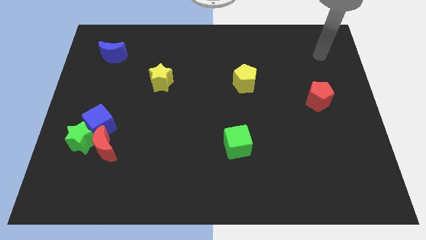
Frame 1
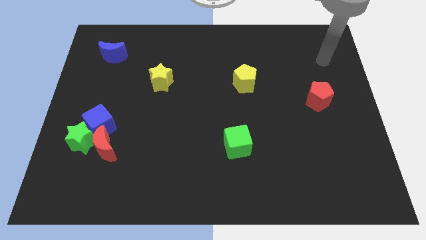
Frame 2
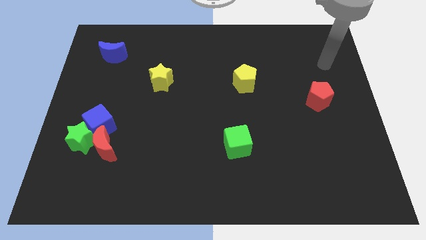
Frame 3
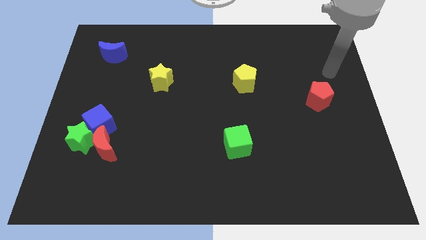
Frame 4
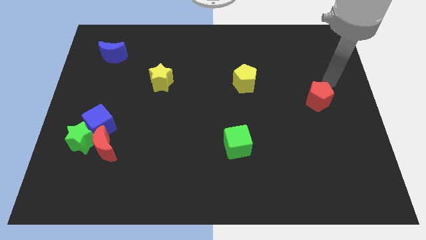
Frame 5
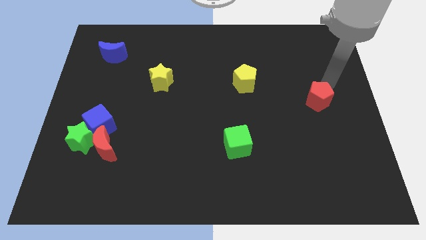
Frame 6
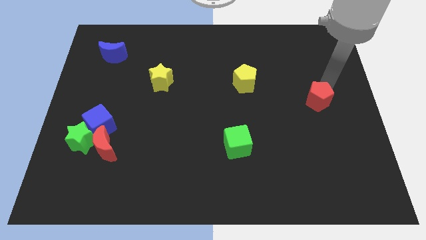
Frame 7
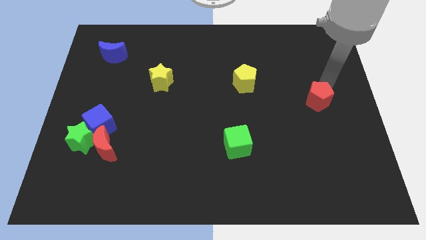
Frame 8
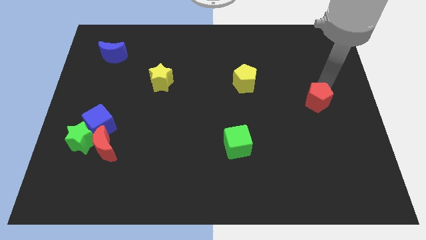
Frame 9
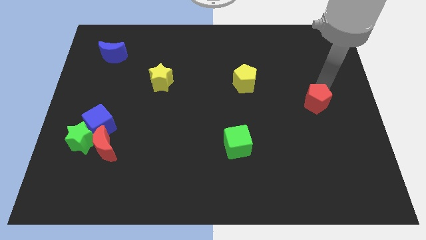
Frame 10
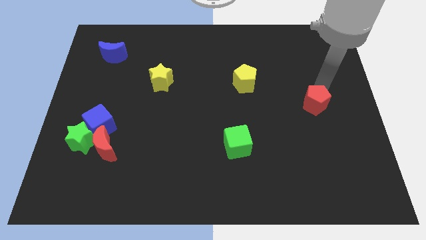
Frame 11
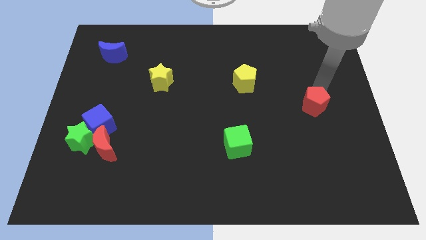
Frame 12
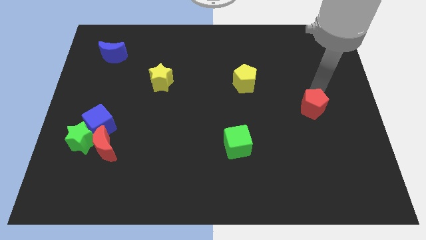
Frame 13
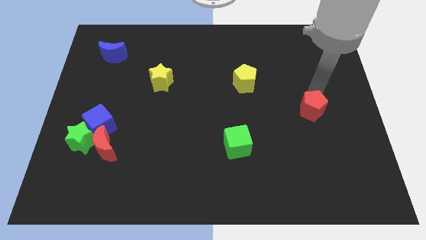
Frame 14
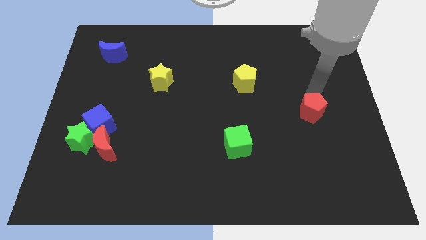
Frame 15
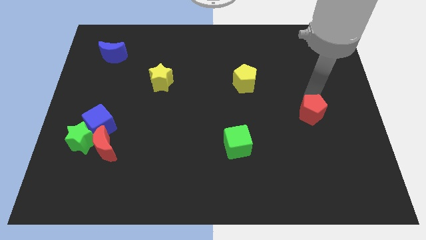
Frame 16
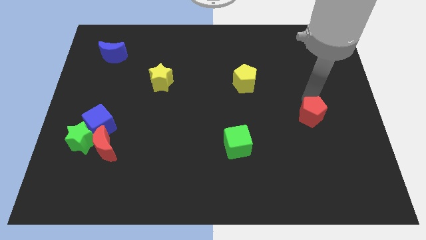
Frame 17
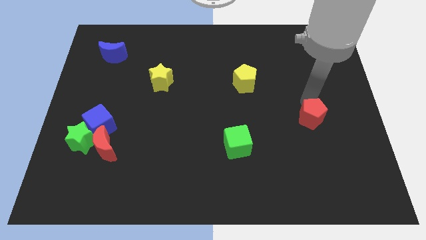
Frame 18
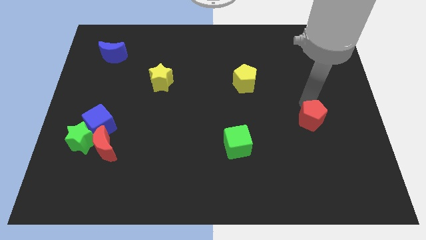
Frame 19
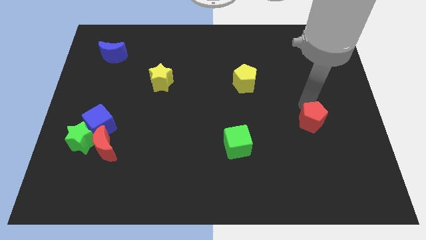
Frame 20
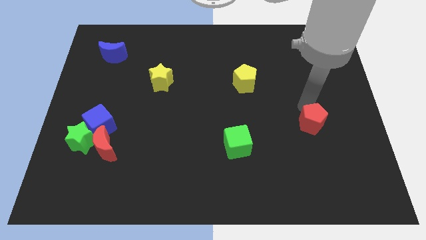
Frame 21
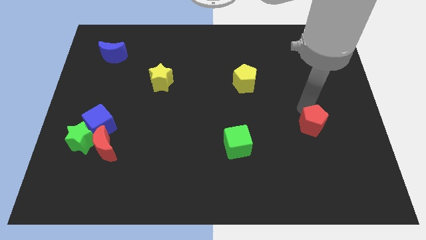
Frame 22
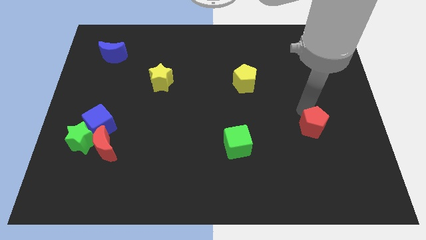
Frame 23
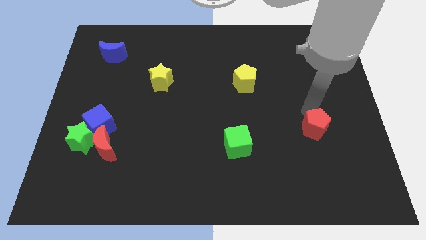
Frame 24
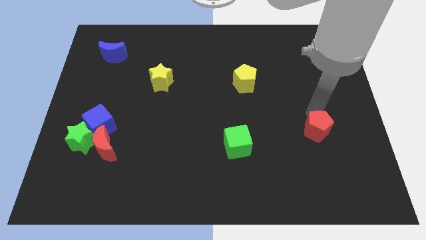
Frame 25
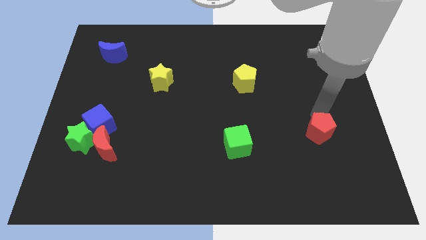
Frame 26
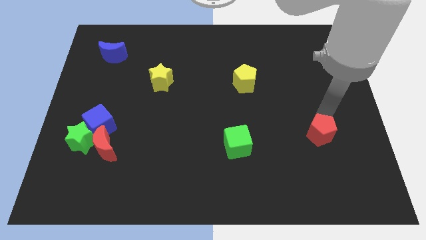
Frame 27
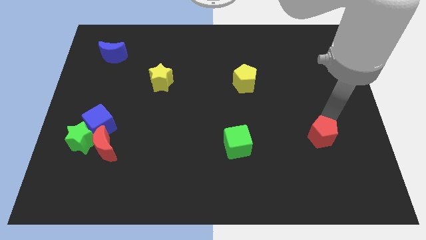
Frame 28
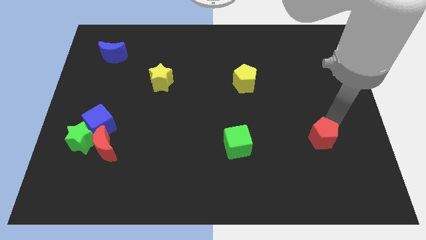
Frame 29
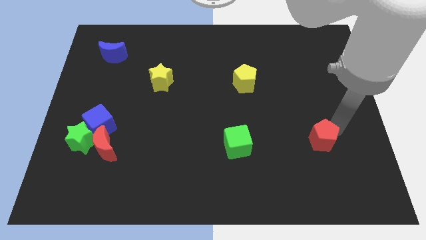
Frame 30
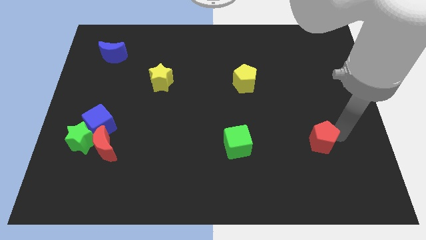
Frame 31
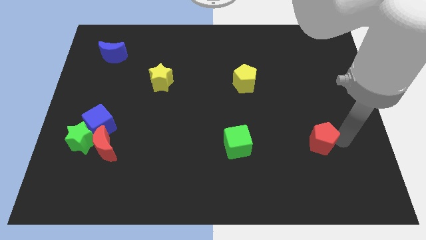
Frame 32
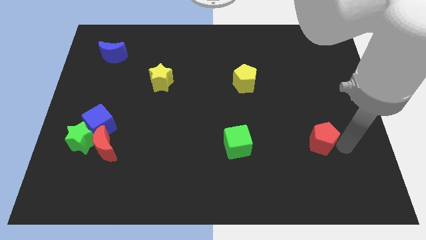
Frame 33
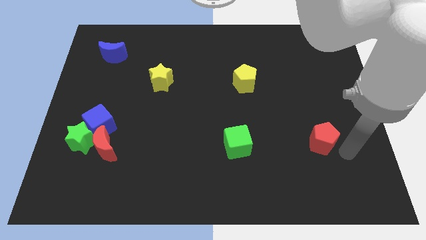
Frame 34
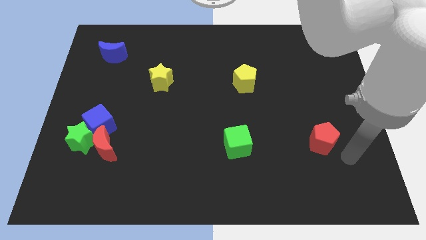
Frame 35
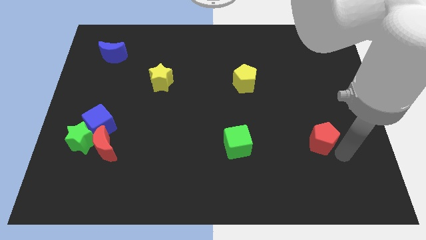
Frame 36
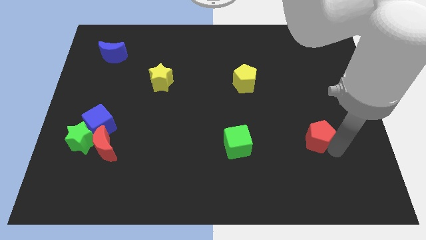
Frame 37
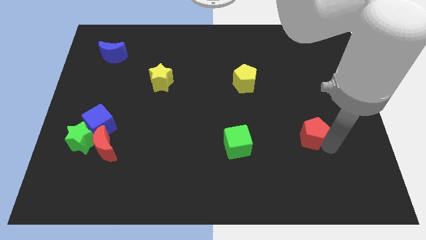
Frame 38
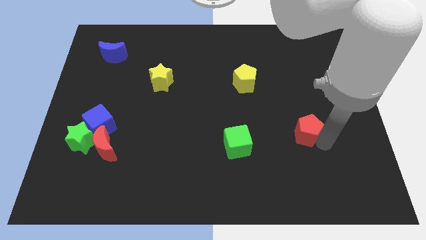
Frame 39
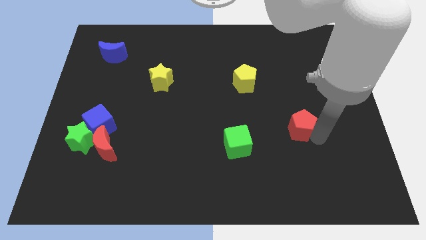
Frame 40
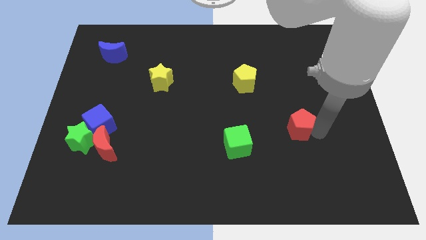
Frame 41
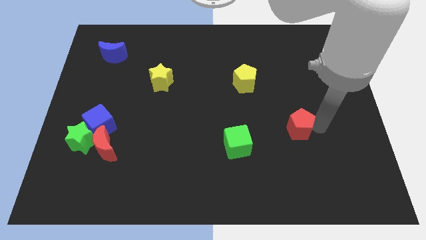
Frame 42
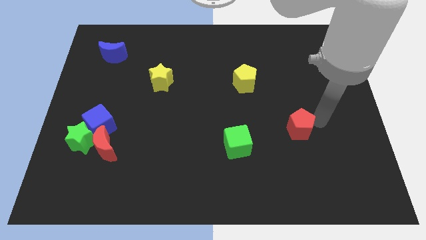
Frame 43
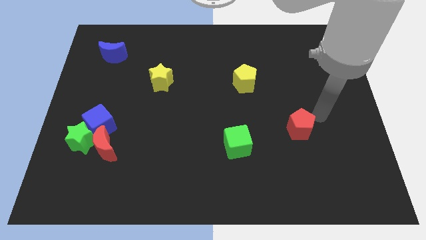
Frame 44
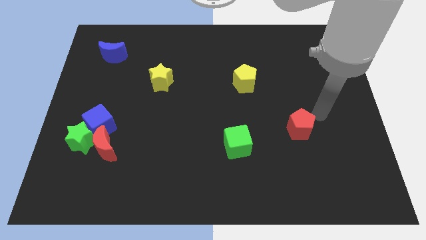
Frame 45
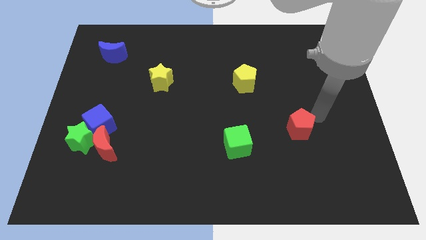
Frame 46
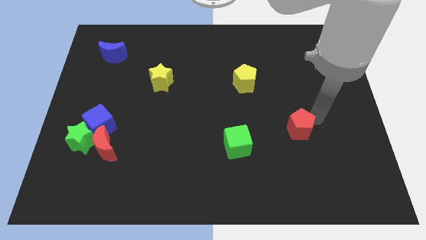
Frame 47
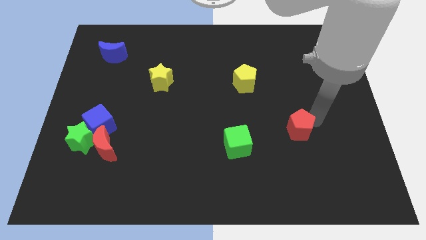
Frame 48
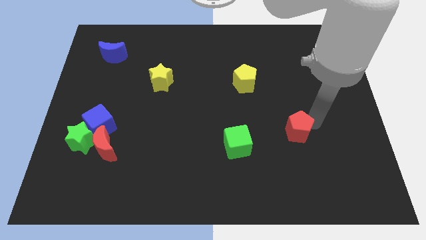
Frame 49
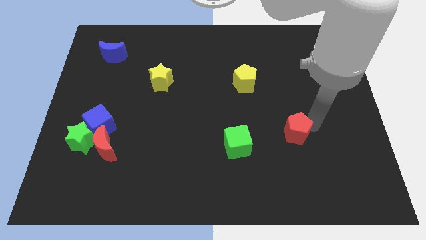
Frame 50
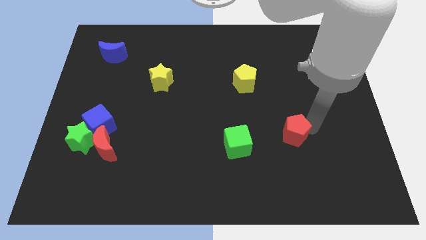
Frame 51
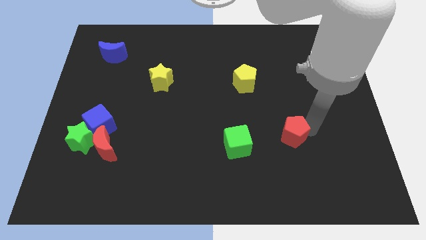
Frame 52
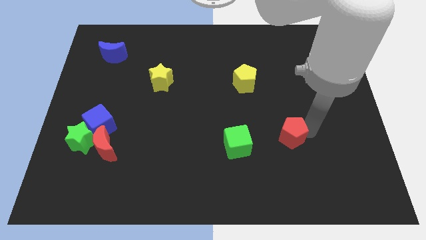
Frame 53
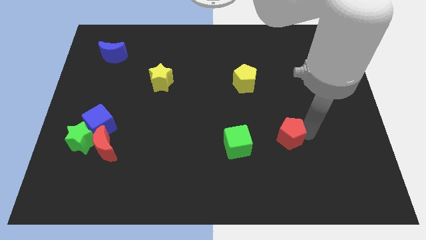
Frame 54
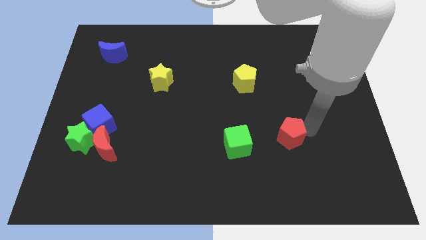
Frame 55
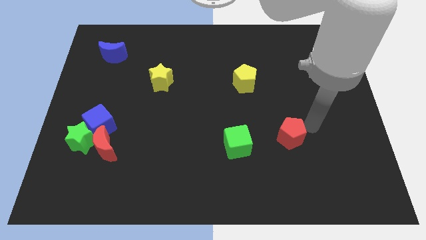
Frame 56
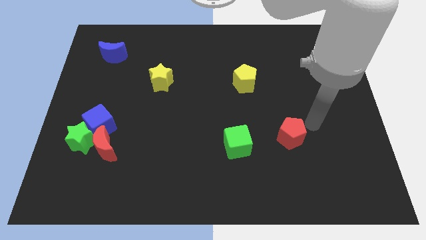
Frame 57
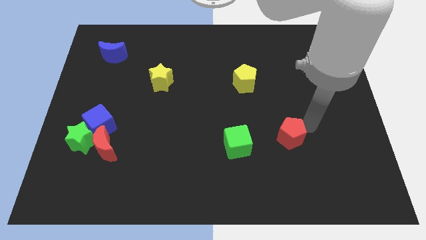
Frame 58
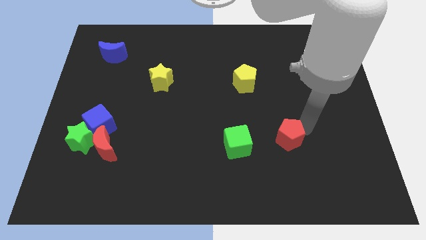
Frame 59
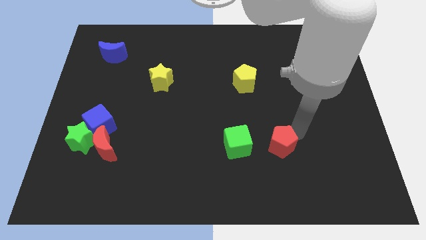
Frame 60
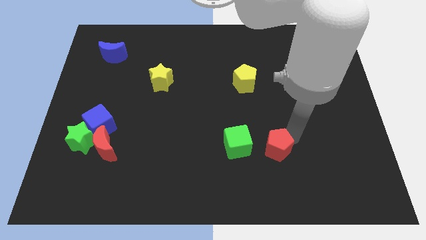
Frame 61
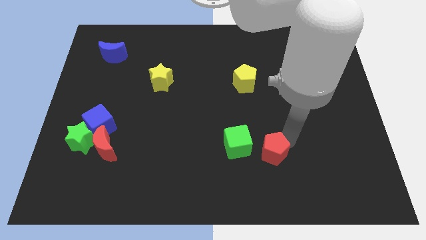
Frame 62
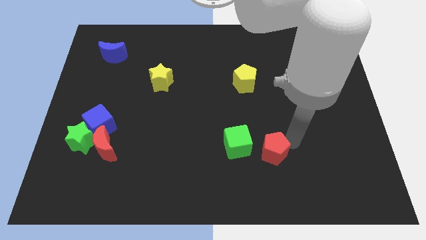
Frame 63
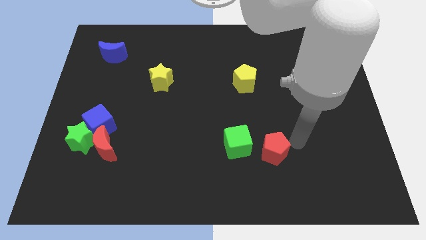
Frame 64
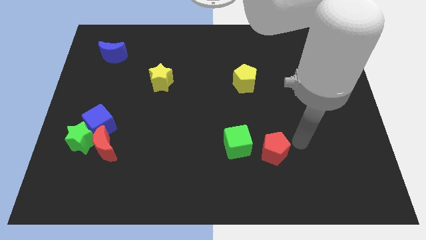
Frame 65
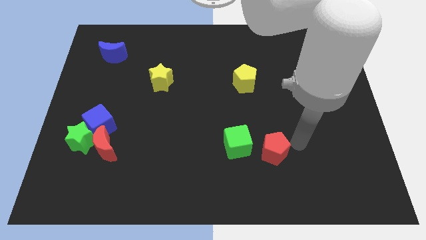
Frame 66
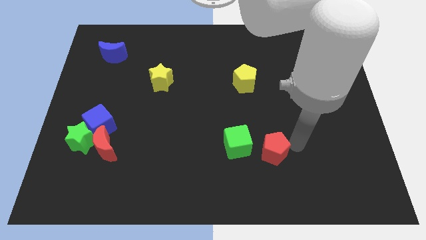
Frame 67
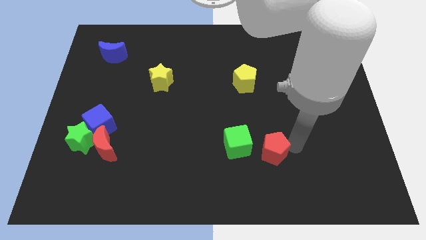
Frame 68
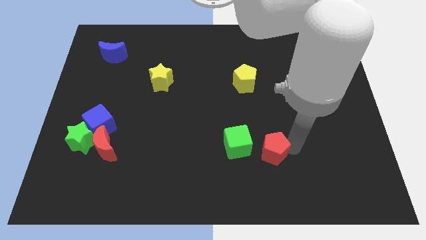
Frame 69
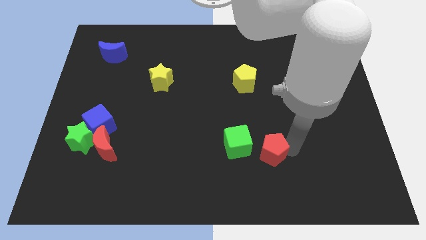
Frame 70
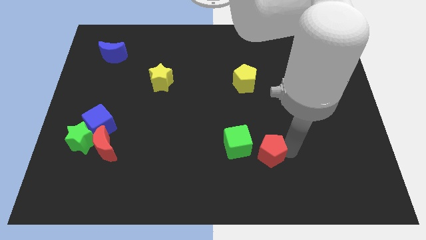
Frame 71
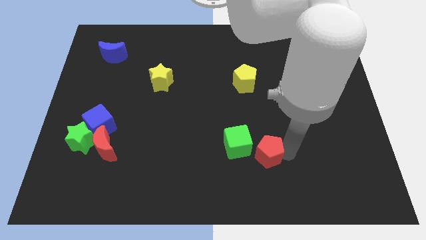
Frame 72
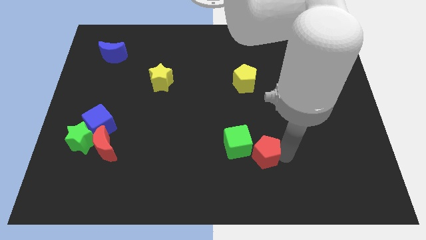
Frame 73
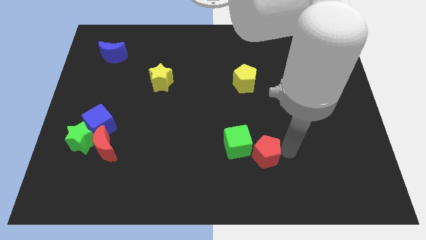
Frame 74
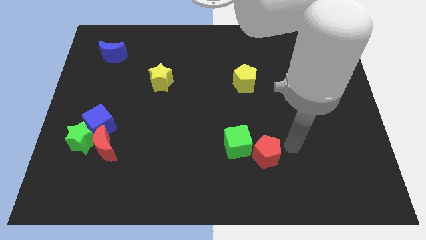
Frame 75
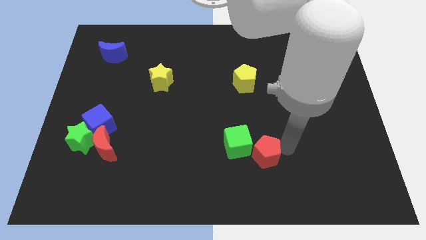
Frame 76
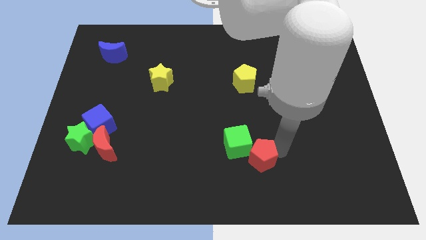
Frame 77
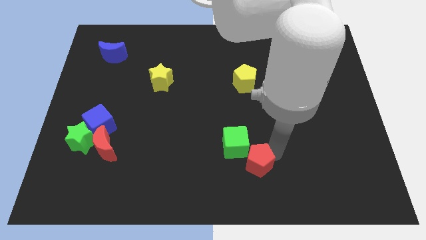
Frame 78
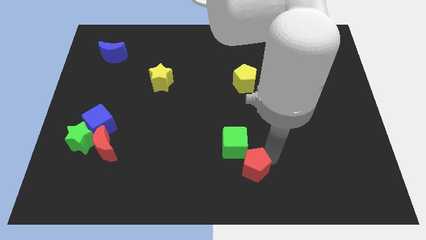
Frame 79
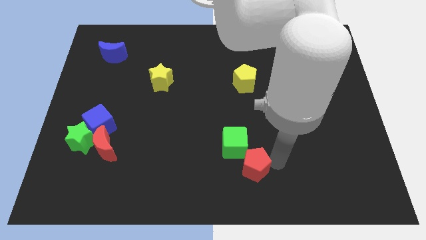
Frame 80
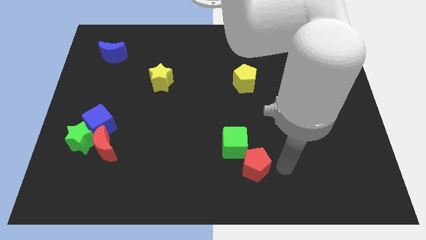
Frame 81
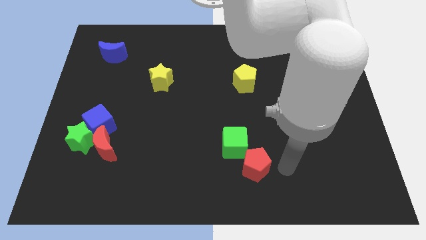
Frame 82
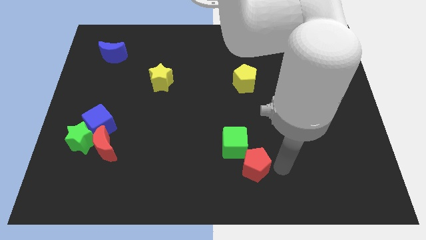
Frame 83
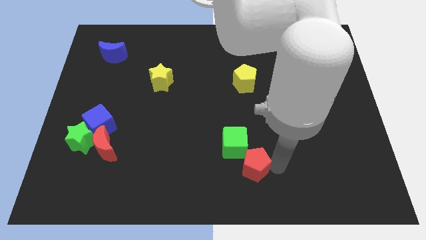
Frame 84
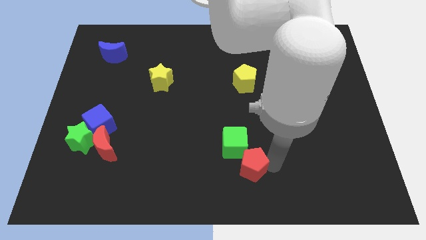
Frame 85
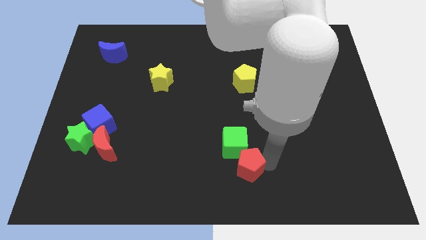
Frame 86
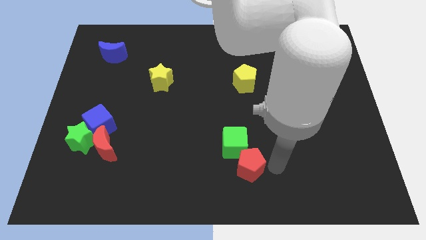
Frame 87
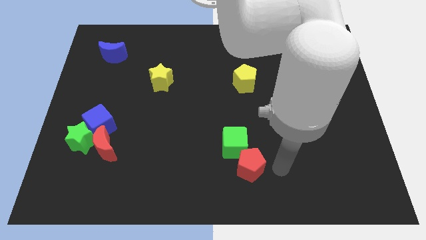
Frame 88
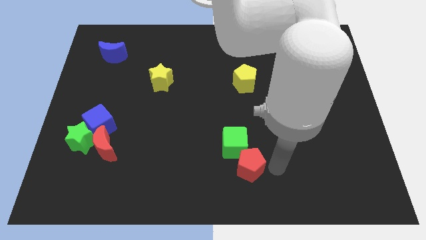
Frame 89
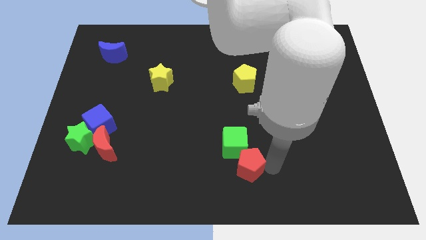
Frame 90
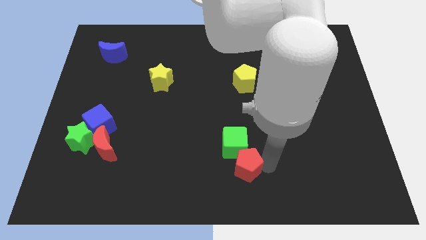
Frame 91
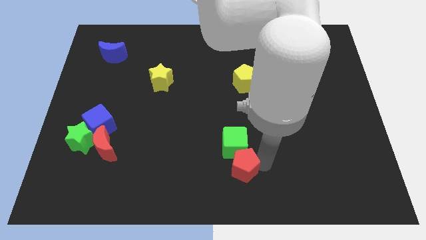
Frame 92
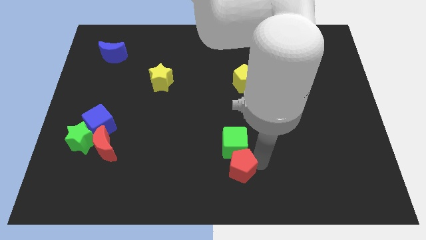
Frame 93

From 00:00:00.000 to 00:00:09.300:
slide the red pentagon to the bottom left of the green cube
